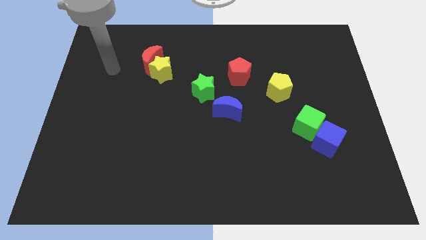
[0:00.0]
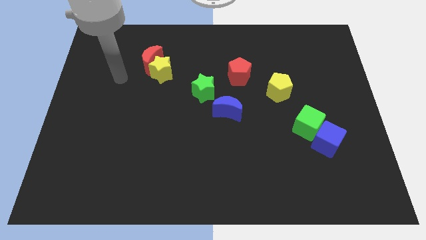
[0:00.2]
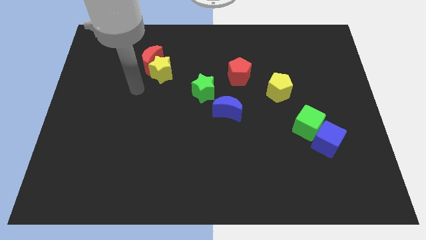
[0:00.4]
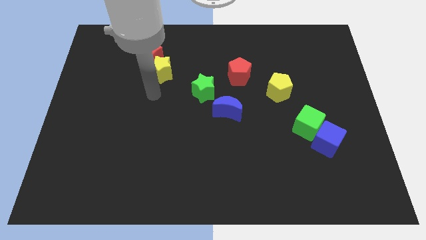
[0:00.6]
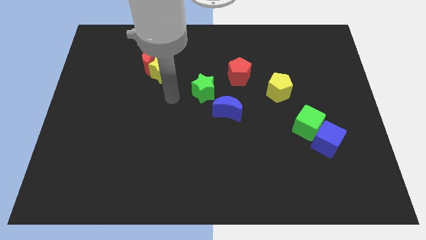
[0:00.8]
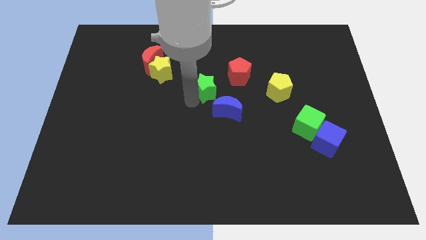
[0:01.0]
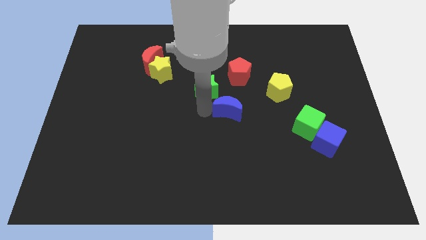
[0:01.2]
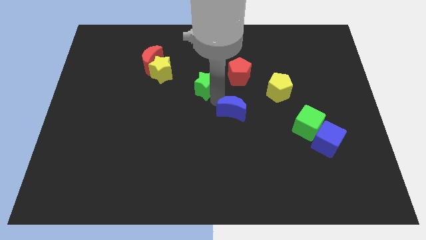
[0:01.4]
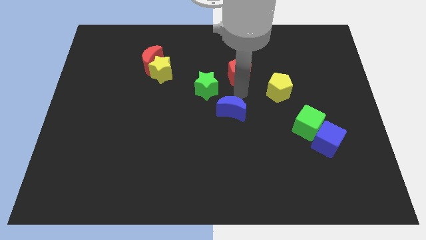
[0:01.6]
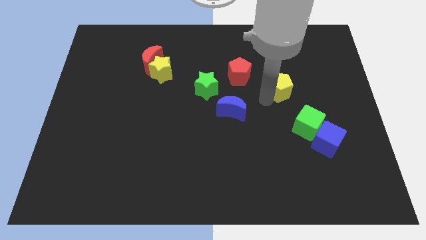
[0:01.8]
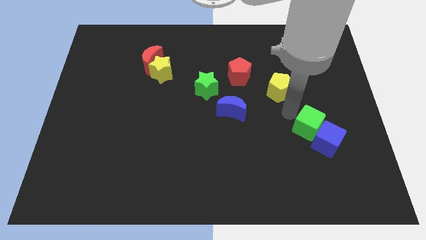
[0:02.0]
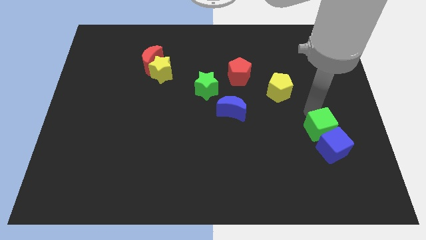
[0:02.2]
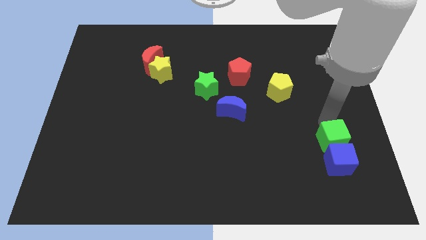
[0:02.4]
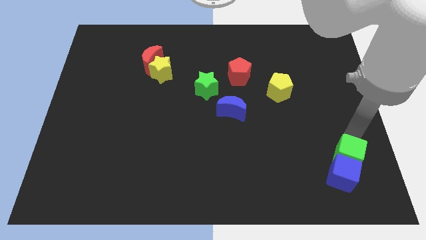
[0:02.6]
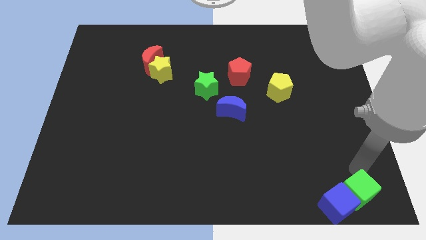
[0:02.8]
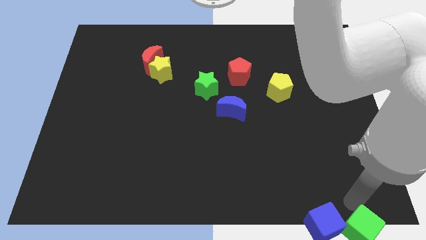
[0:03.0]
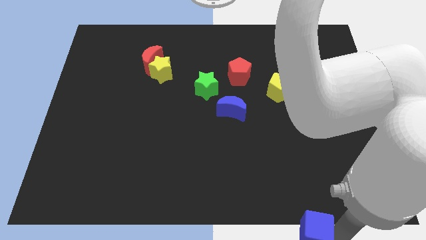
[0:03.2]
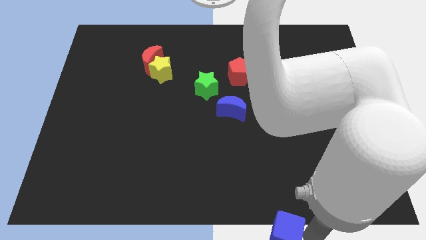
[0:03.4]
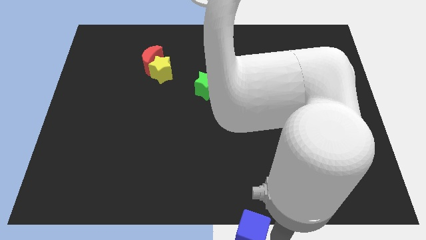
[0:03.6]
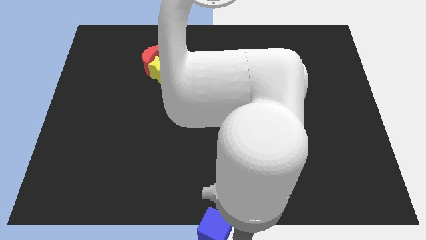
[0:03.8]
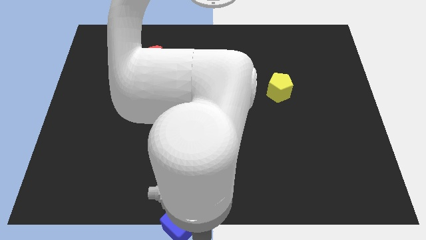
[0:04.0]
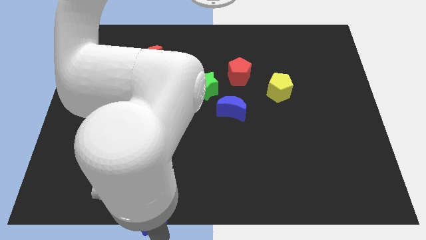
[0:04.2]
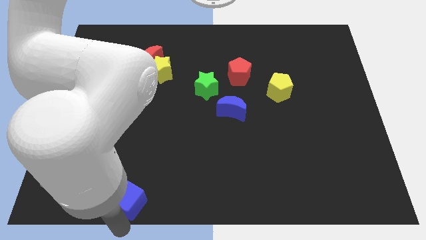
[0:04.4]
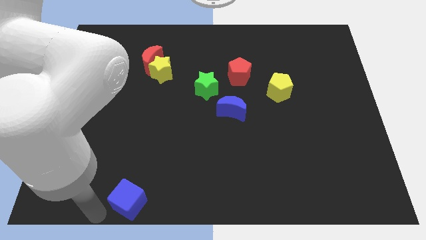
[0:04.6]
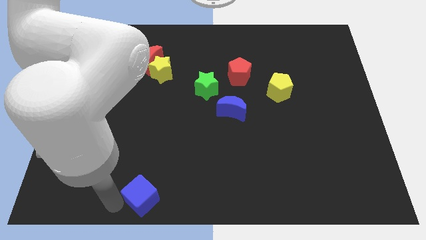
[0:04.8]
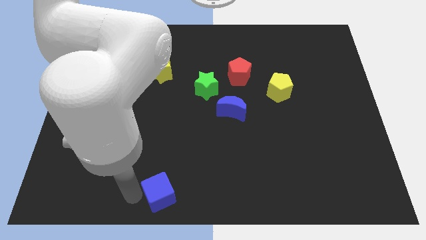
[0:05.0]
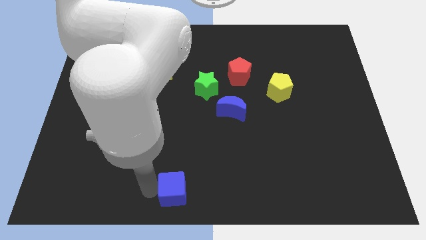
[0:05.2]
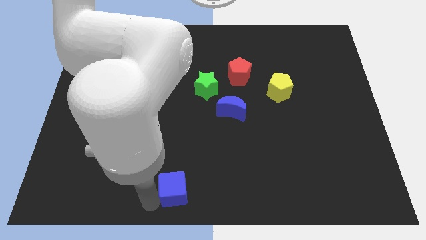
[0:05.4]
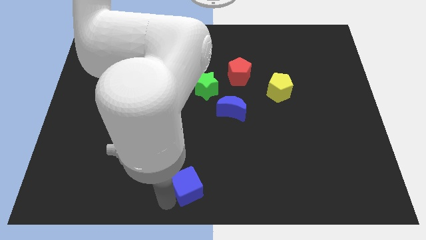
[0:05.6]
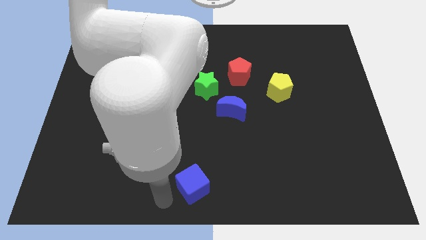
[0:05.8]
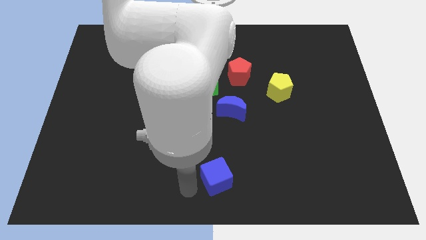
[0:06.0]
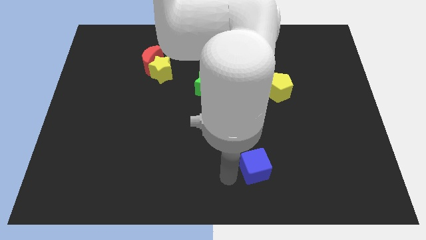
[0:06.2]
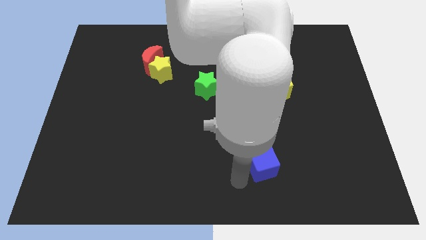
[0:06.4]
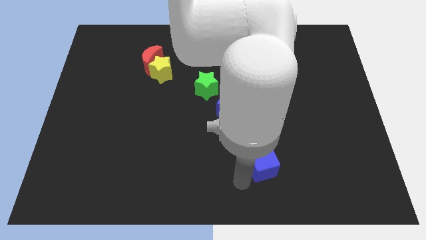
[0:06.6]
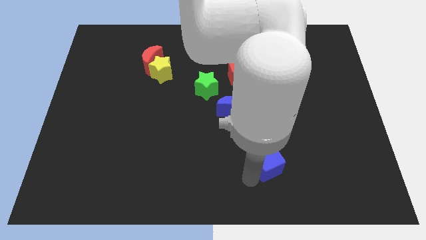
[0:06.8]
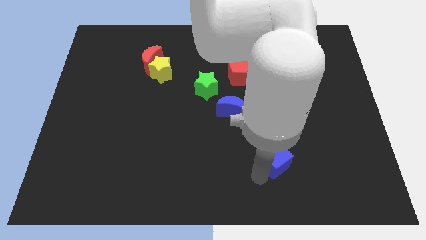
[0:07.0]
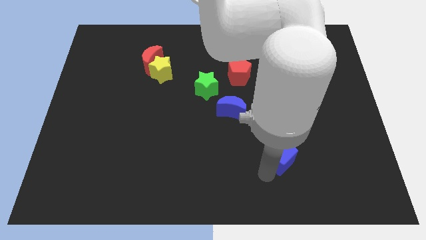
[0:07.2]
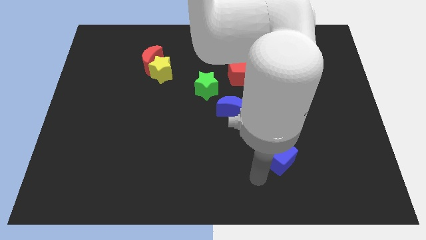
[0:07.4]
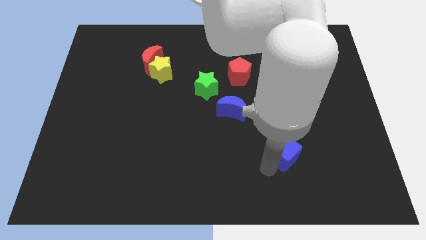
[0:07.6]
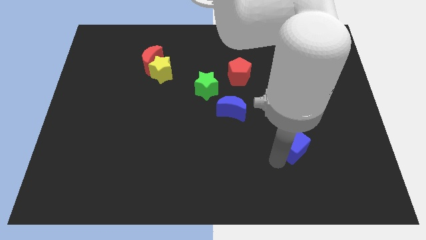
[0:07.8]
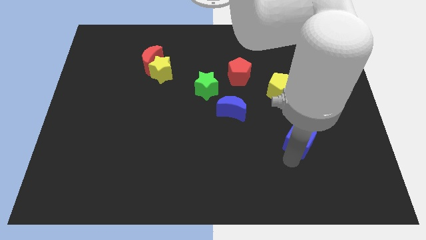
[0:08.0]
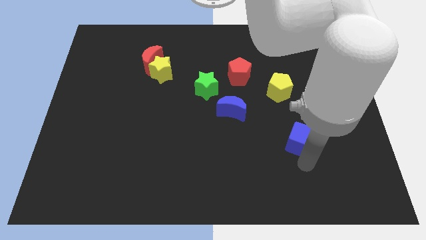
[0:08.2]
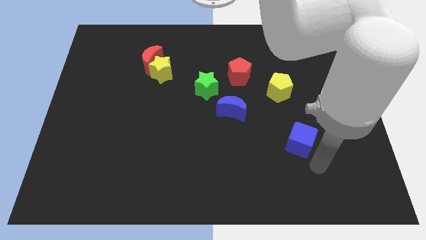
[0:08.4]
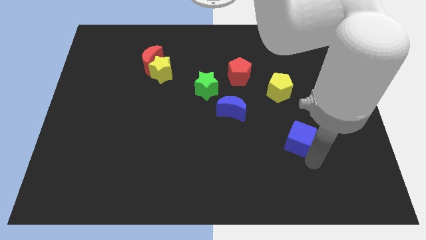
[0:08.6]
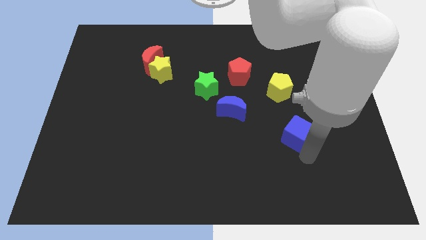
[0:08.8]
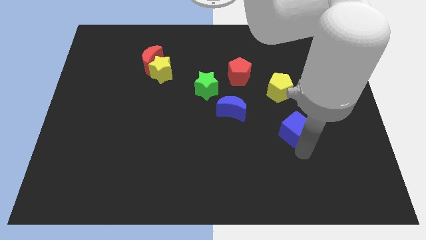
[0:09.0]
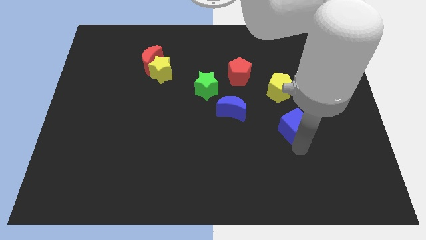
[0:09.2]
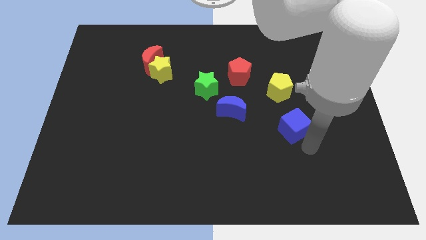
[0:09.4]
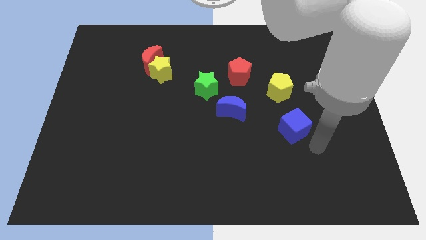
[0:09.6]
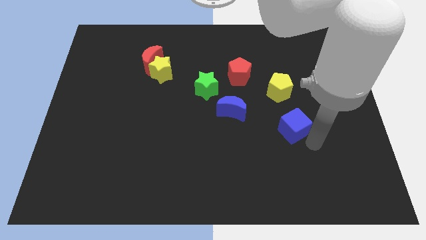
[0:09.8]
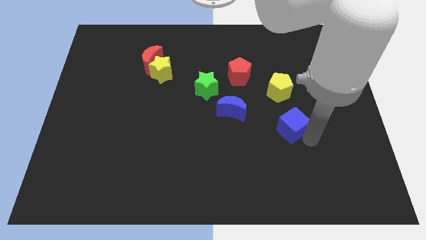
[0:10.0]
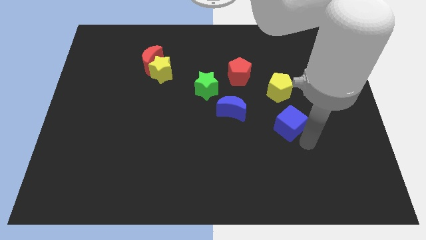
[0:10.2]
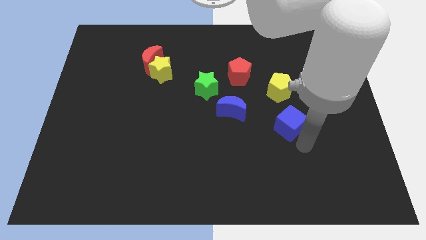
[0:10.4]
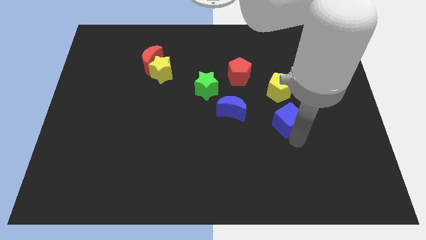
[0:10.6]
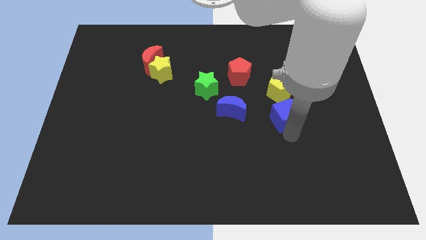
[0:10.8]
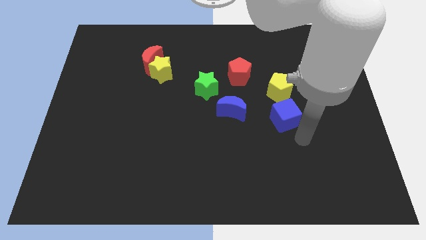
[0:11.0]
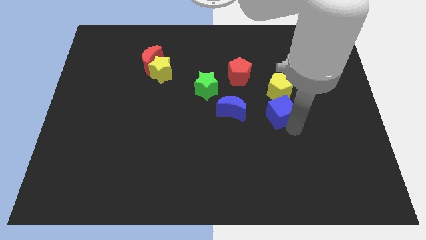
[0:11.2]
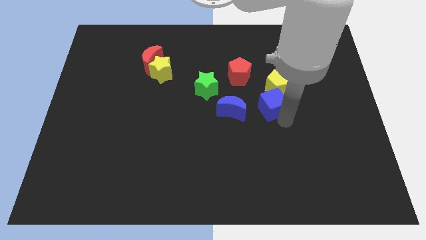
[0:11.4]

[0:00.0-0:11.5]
move the blue cube diagonally down and to the right of the red pentagon

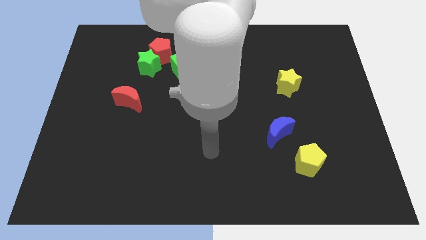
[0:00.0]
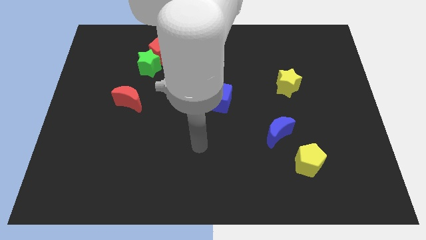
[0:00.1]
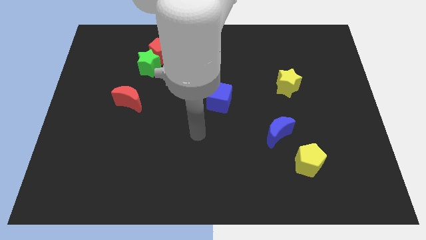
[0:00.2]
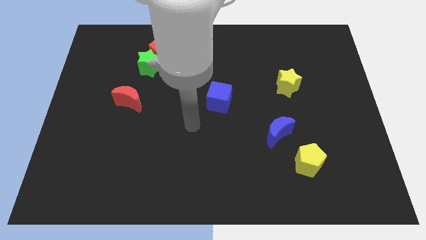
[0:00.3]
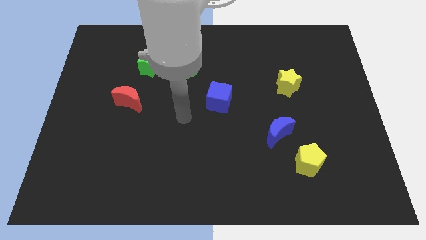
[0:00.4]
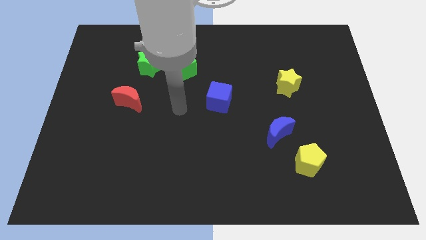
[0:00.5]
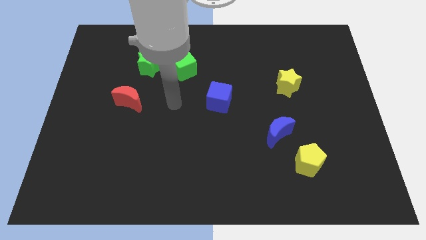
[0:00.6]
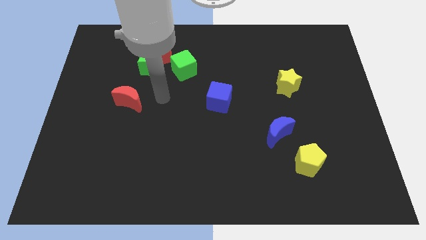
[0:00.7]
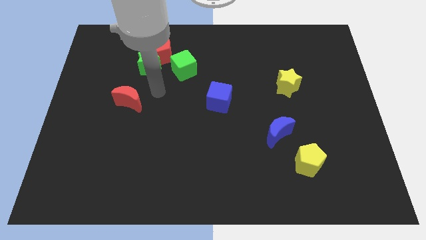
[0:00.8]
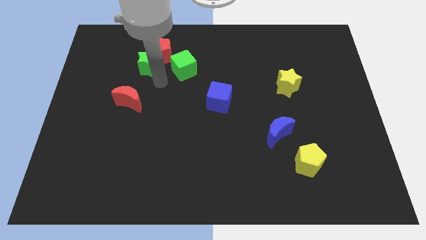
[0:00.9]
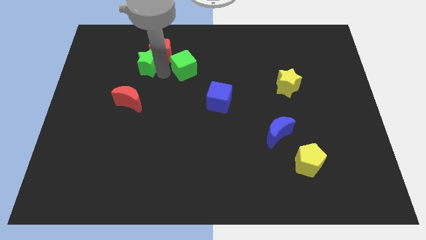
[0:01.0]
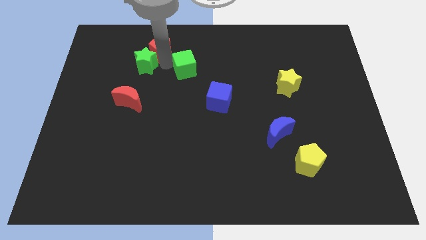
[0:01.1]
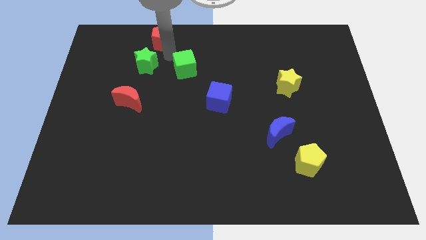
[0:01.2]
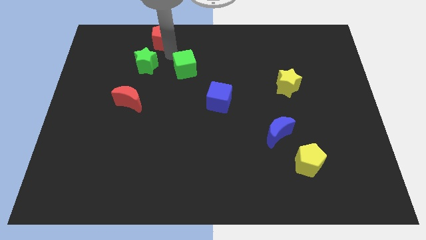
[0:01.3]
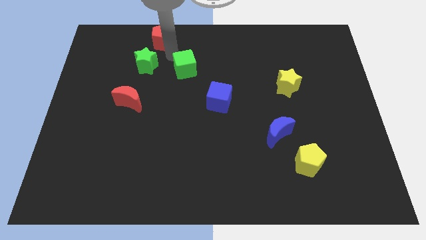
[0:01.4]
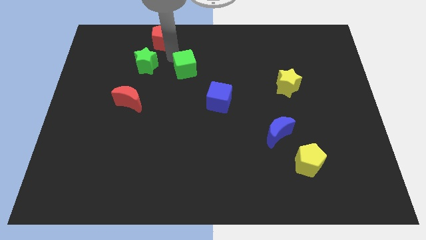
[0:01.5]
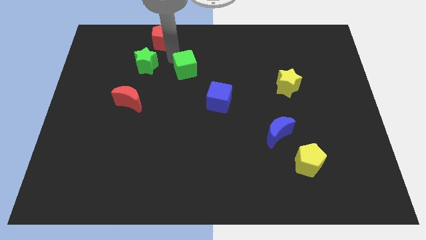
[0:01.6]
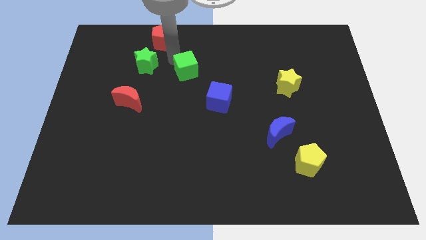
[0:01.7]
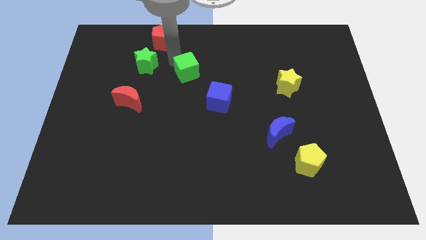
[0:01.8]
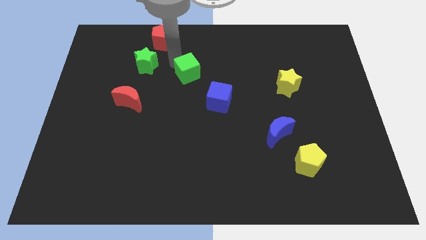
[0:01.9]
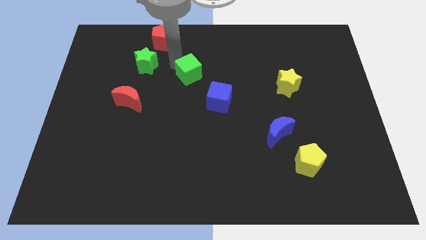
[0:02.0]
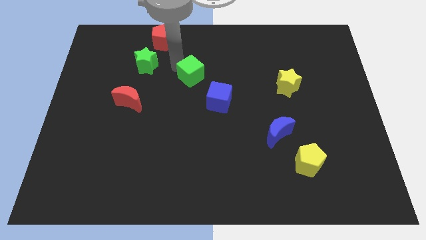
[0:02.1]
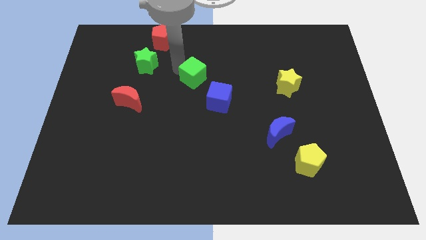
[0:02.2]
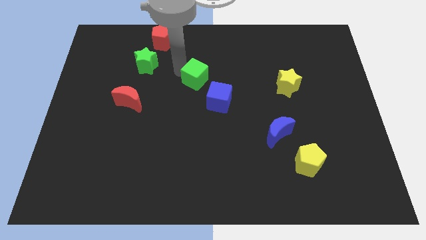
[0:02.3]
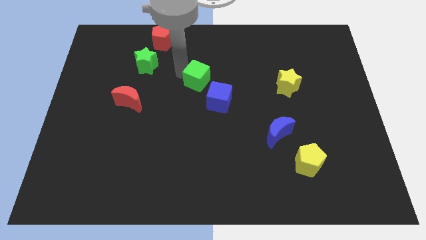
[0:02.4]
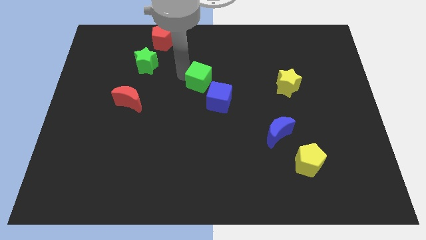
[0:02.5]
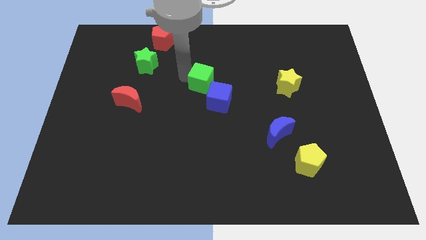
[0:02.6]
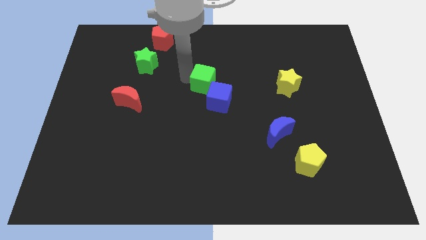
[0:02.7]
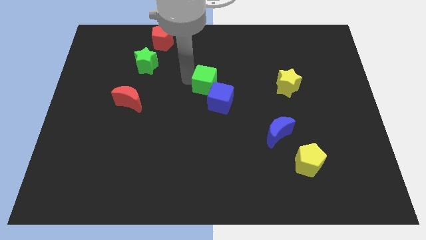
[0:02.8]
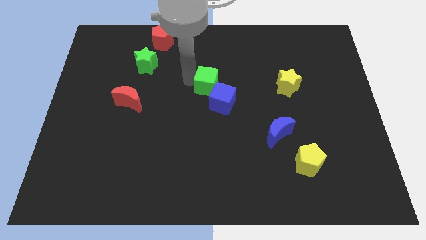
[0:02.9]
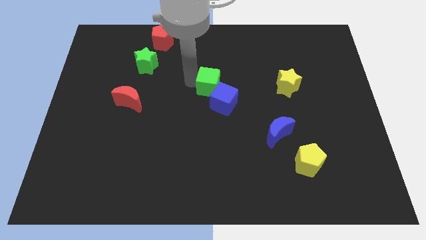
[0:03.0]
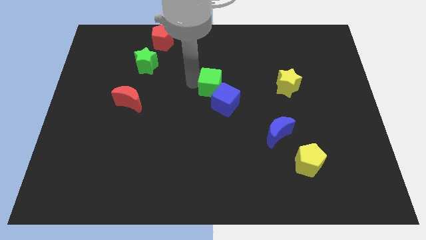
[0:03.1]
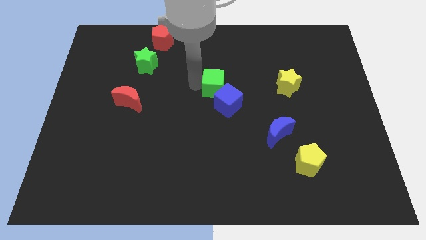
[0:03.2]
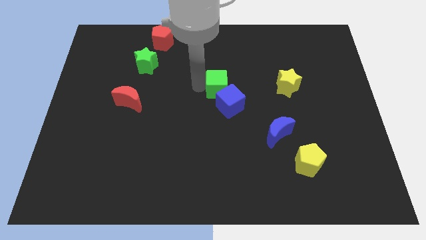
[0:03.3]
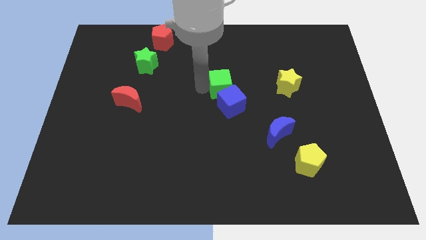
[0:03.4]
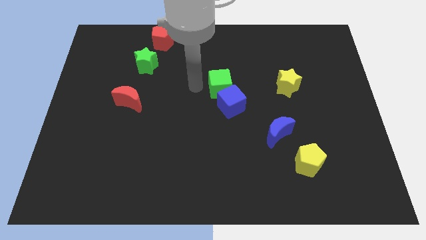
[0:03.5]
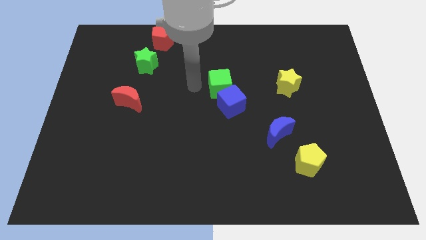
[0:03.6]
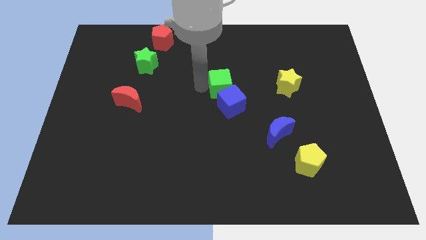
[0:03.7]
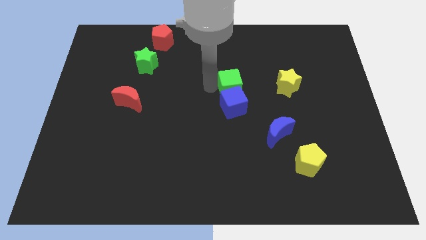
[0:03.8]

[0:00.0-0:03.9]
push the green cube to the top right of the blue cube
